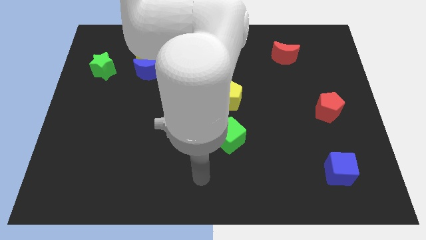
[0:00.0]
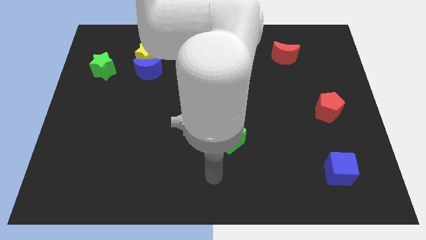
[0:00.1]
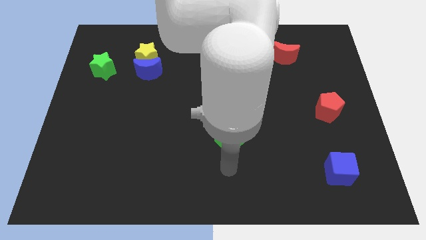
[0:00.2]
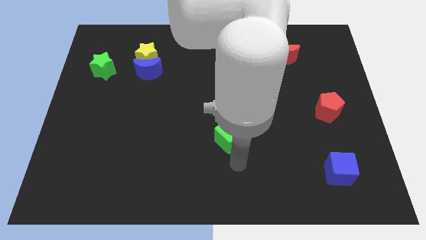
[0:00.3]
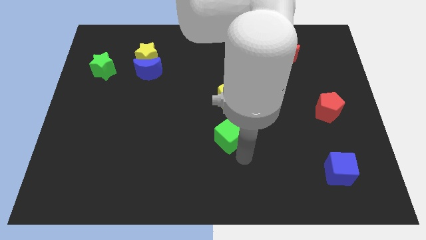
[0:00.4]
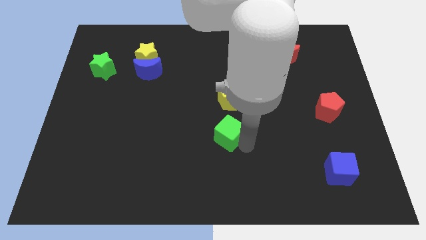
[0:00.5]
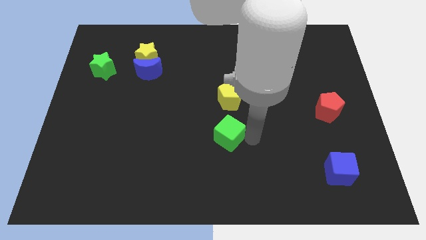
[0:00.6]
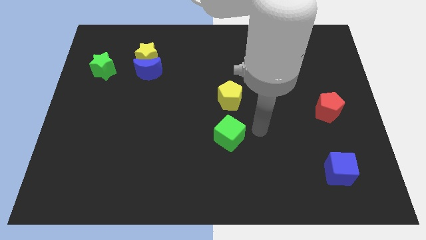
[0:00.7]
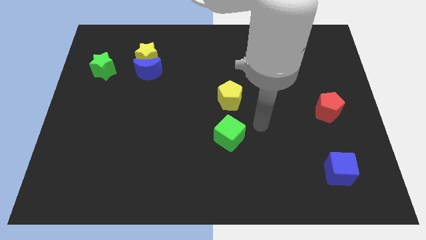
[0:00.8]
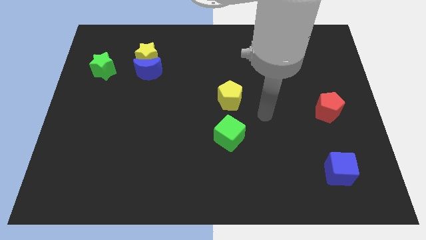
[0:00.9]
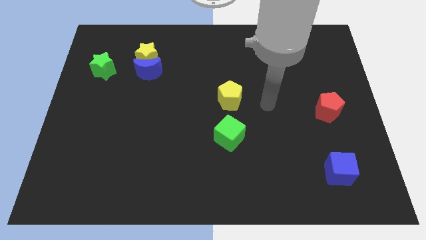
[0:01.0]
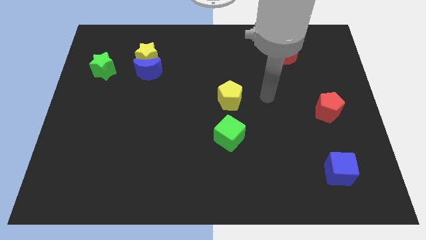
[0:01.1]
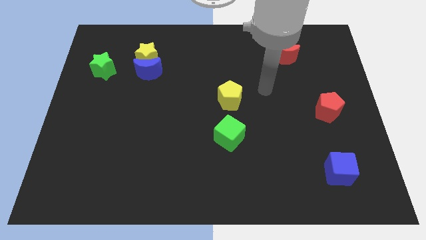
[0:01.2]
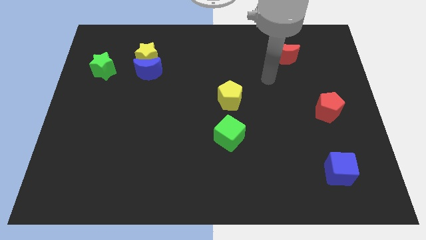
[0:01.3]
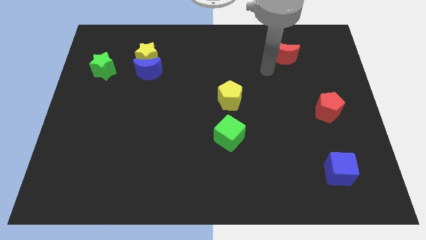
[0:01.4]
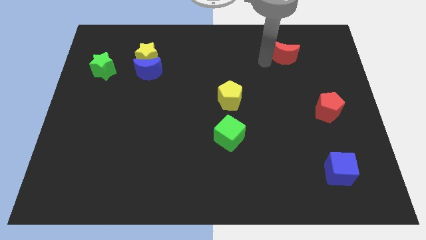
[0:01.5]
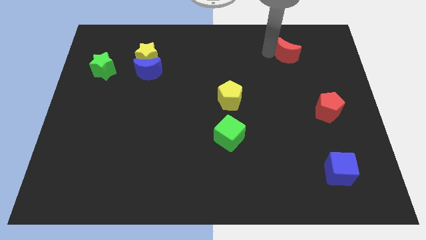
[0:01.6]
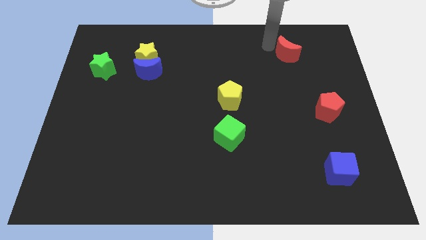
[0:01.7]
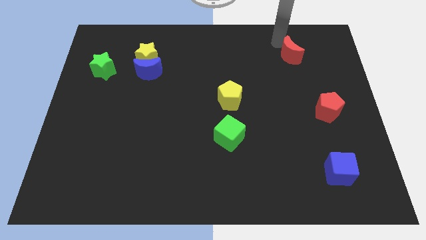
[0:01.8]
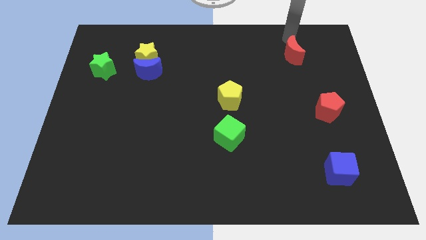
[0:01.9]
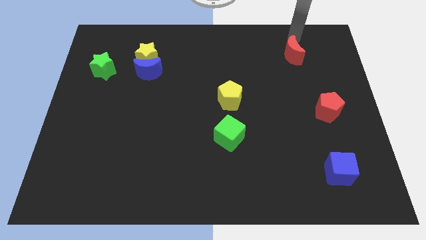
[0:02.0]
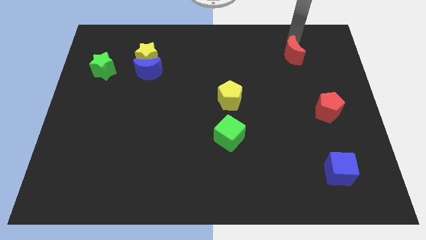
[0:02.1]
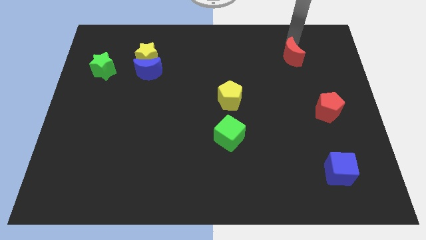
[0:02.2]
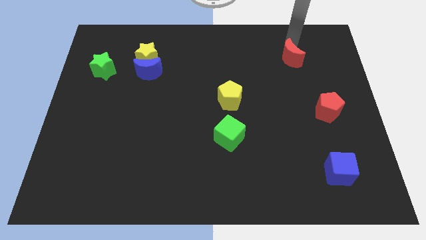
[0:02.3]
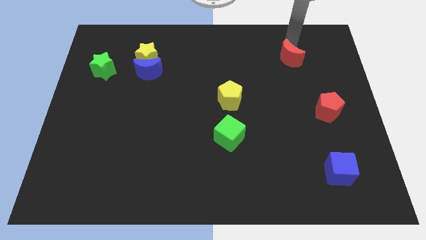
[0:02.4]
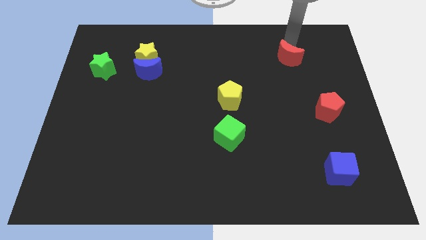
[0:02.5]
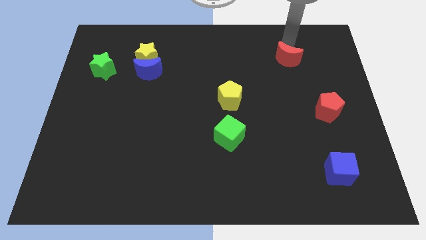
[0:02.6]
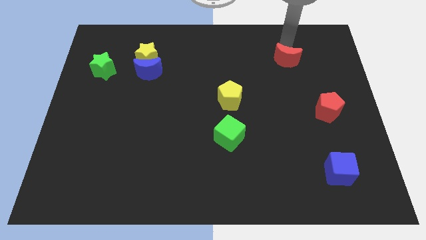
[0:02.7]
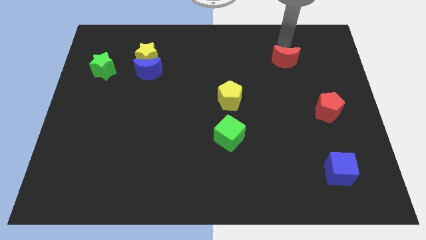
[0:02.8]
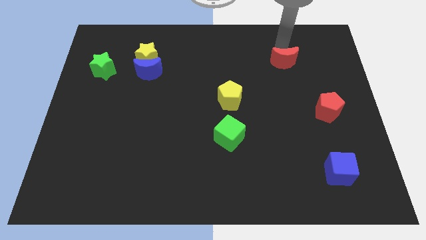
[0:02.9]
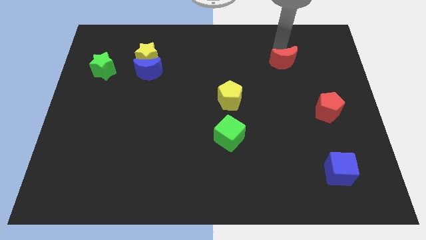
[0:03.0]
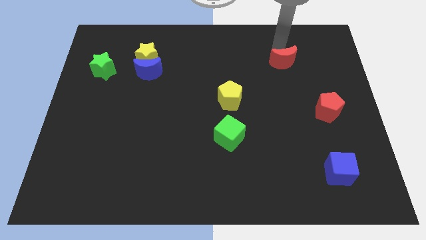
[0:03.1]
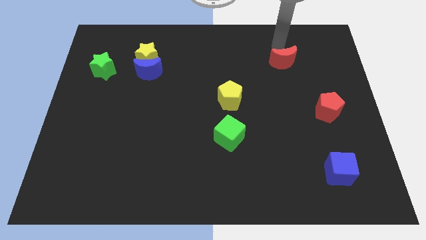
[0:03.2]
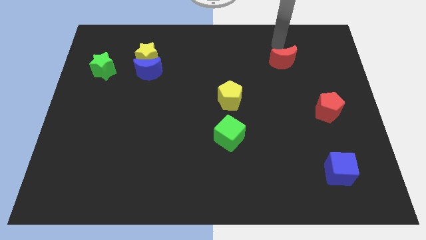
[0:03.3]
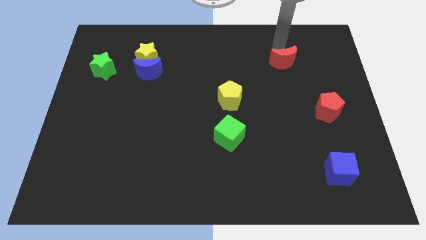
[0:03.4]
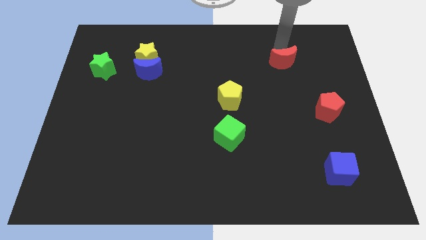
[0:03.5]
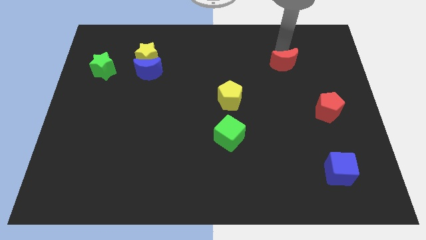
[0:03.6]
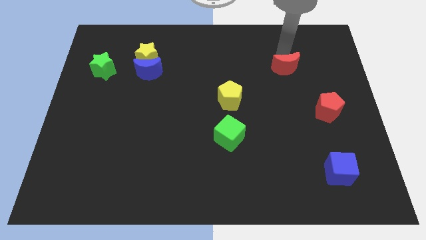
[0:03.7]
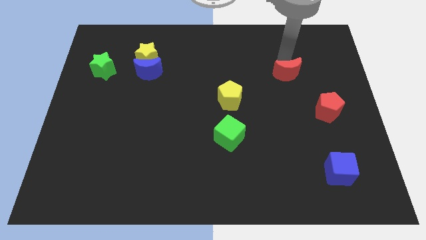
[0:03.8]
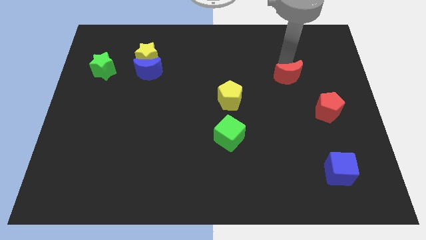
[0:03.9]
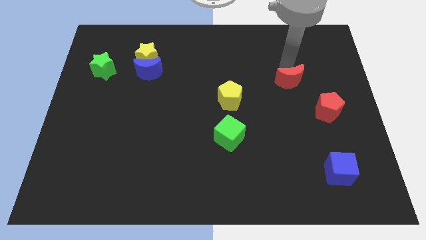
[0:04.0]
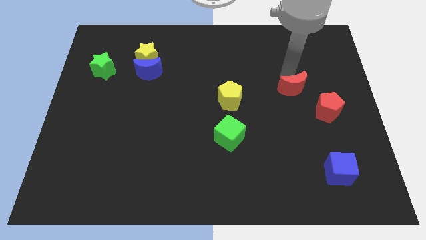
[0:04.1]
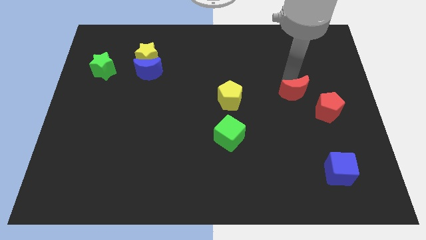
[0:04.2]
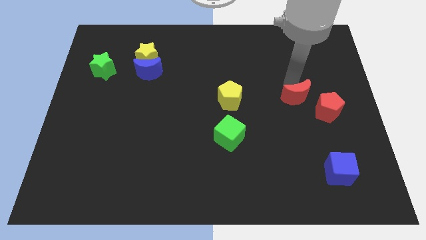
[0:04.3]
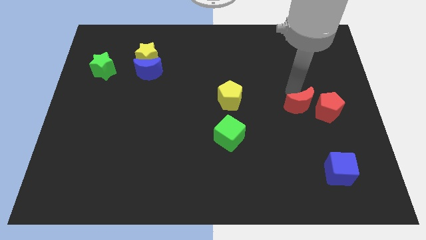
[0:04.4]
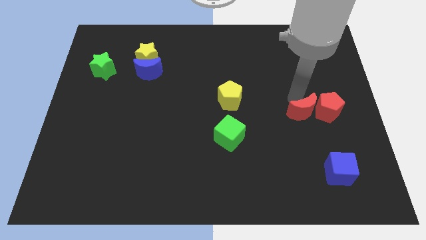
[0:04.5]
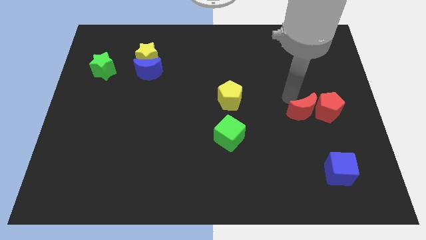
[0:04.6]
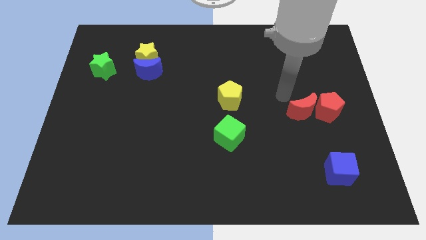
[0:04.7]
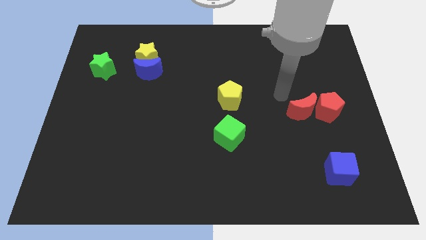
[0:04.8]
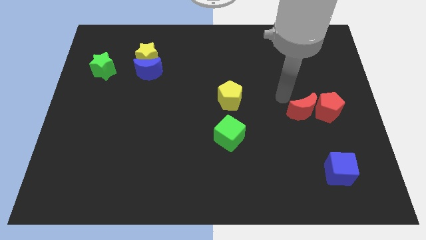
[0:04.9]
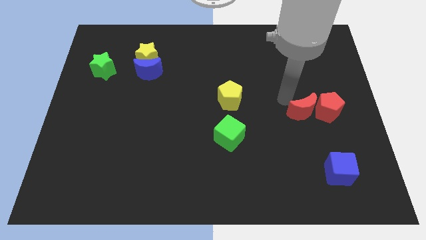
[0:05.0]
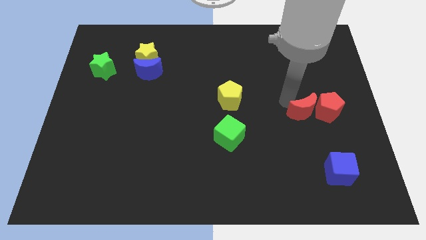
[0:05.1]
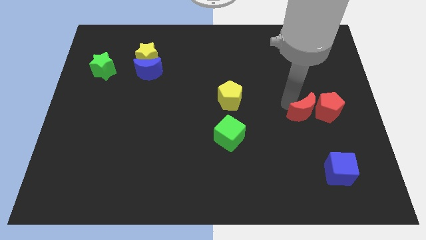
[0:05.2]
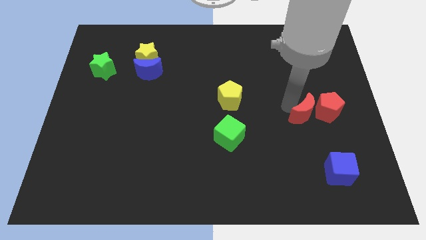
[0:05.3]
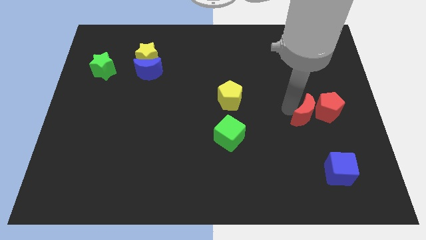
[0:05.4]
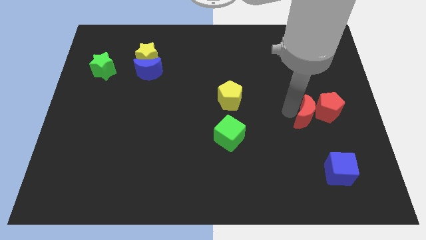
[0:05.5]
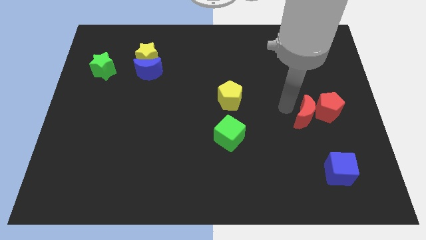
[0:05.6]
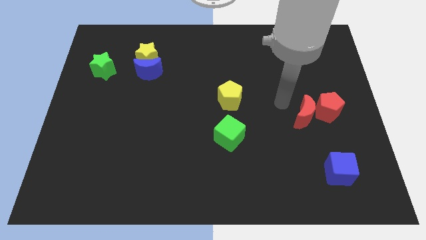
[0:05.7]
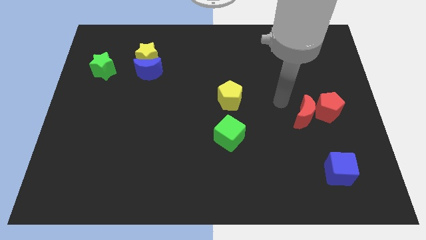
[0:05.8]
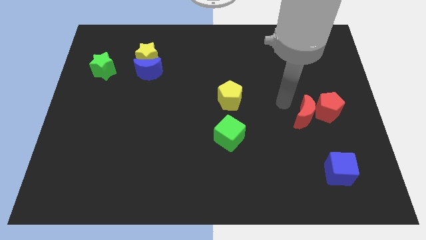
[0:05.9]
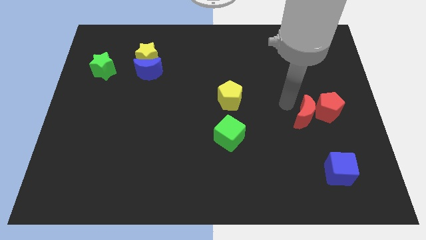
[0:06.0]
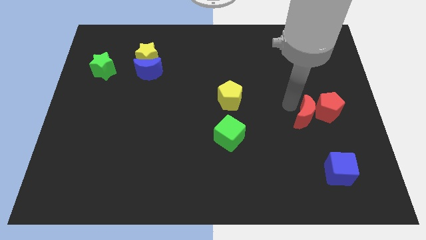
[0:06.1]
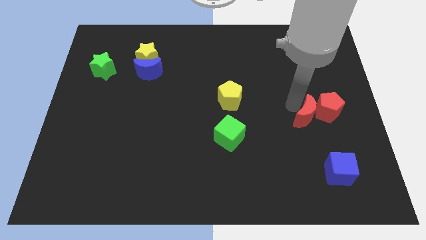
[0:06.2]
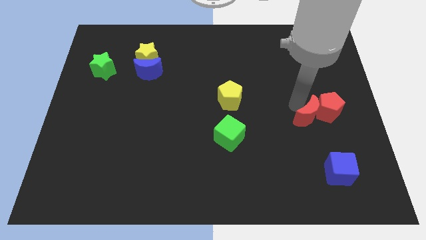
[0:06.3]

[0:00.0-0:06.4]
move the red moon to the top side of the blue cube
